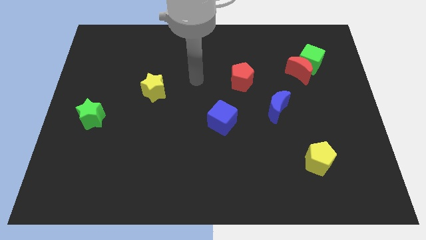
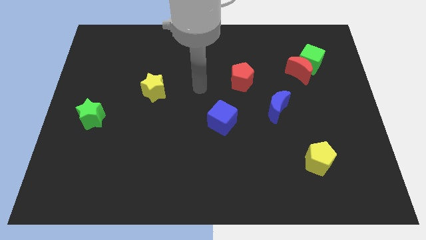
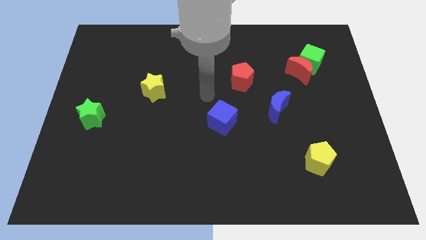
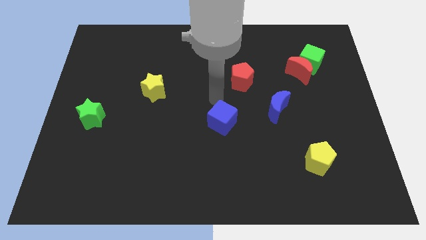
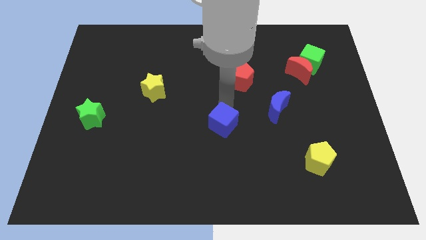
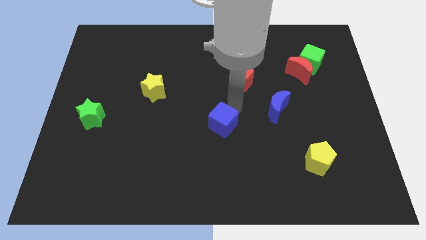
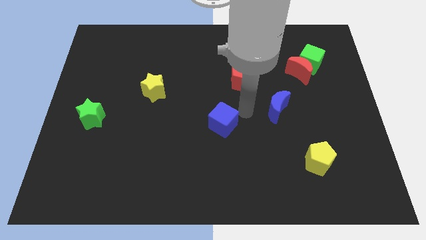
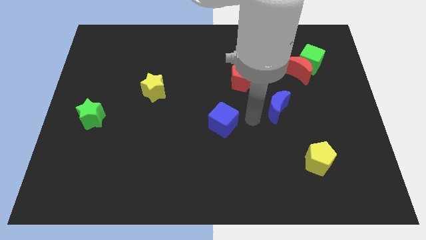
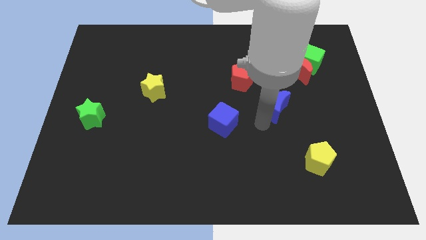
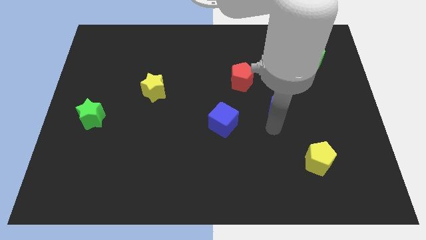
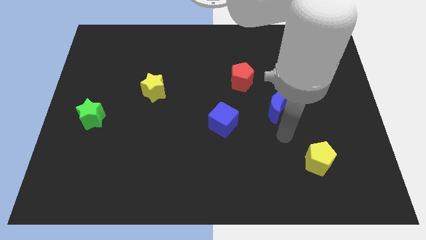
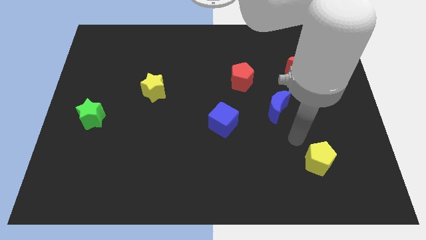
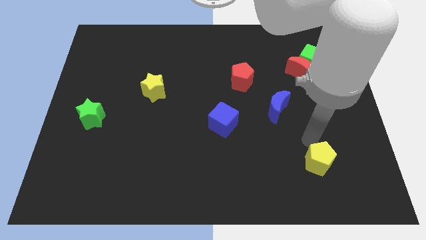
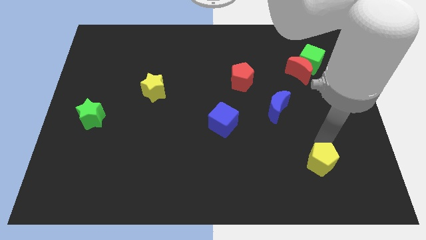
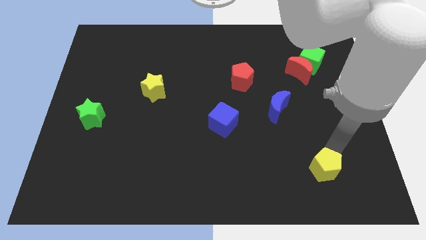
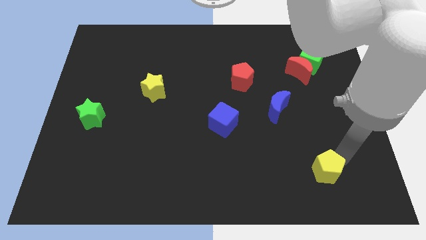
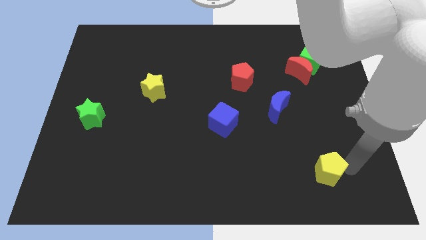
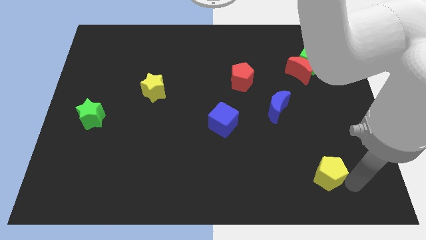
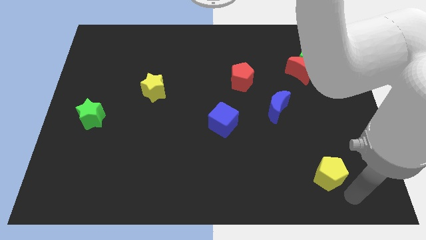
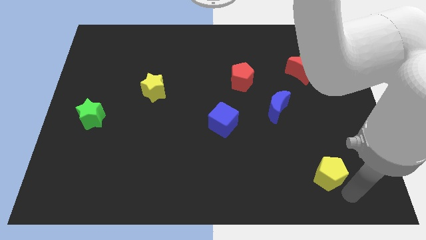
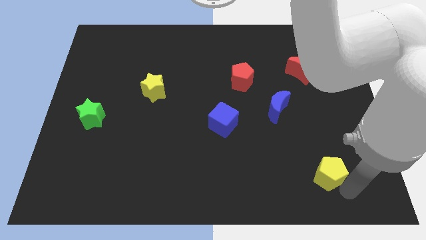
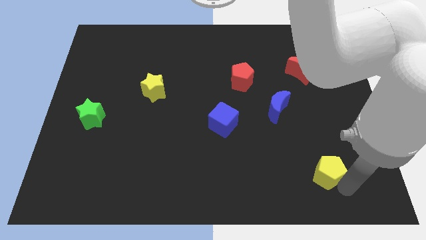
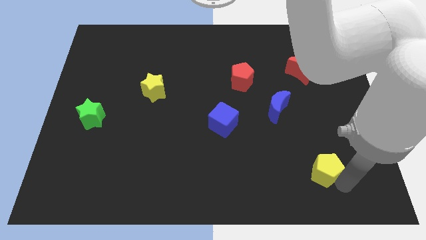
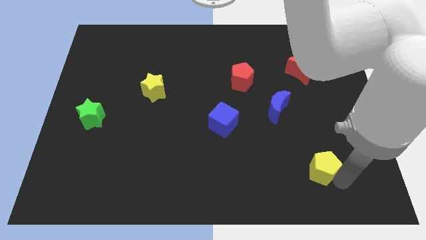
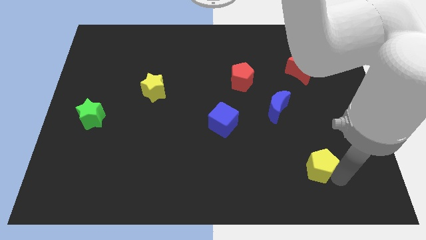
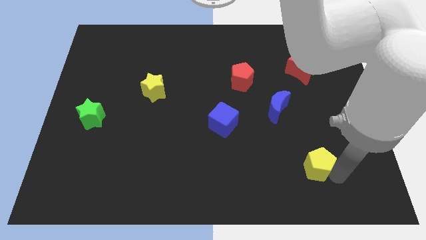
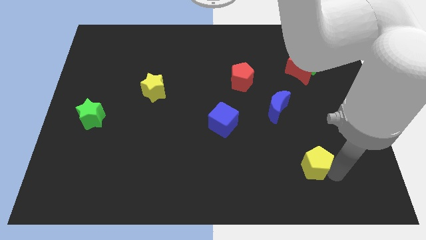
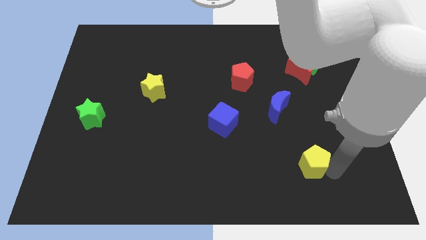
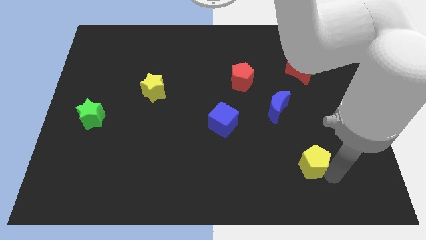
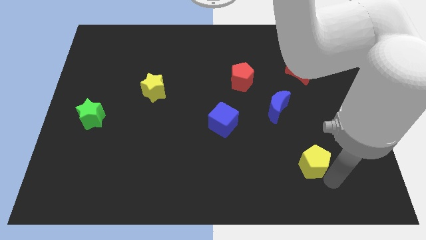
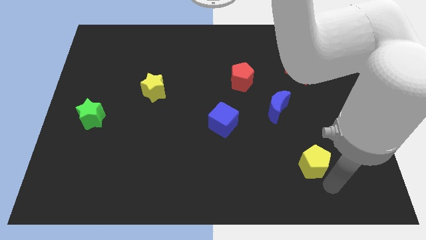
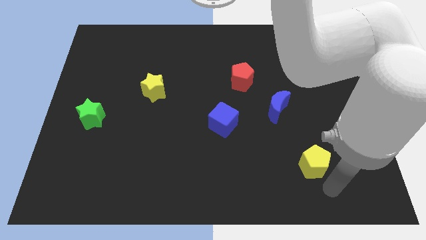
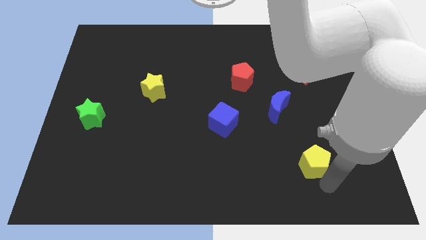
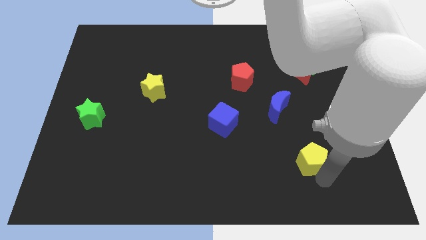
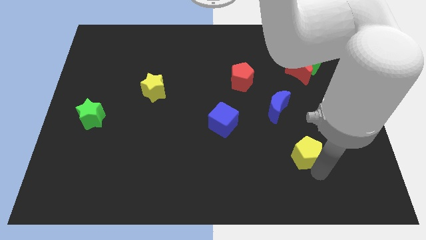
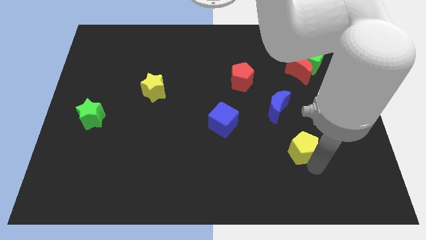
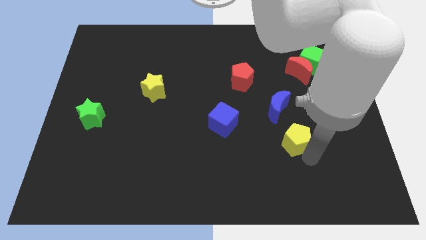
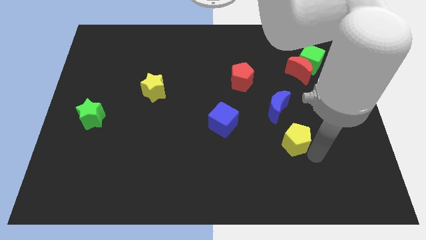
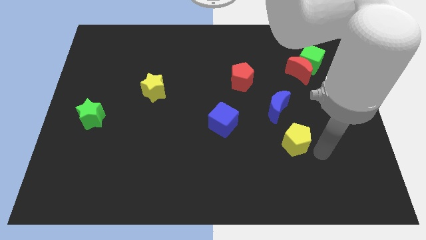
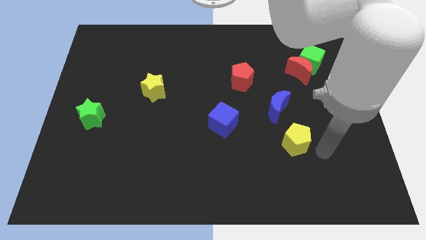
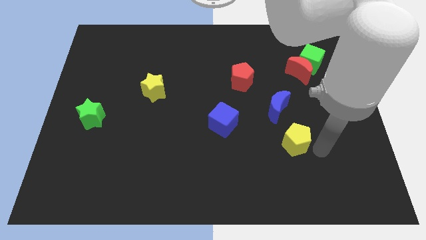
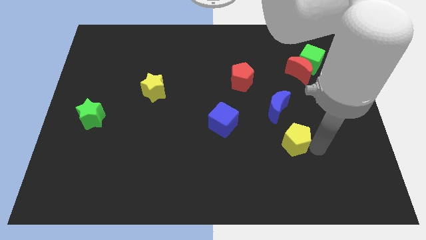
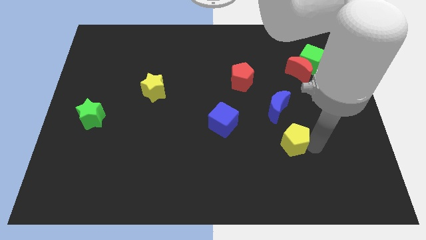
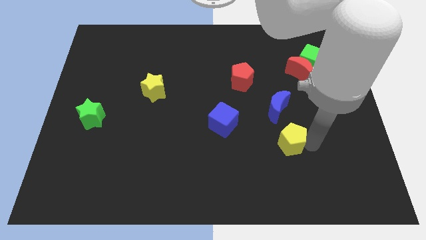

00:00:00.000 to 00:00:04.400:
slightly slide the yellow pentagon diagonally upwards and to the left

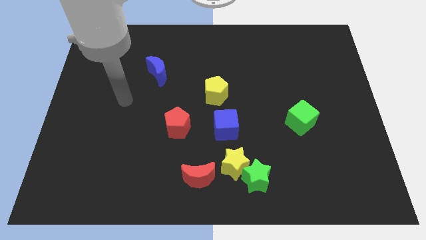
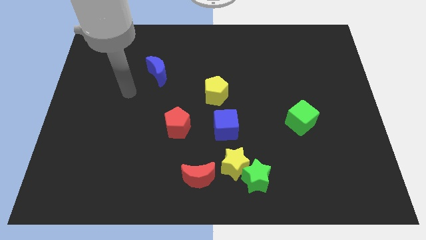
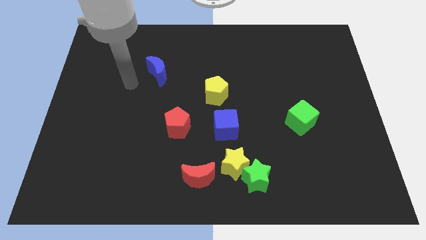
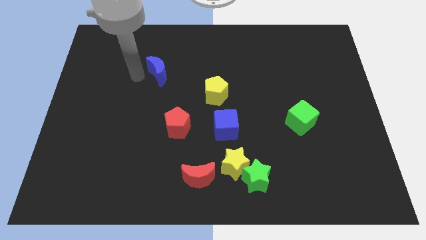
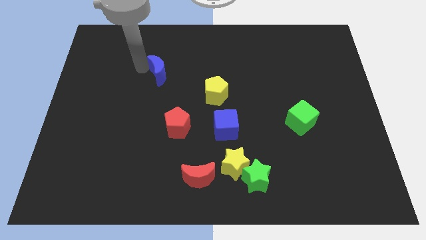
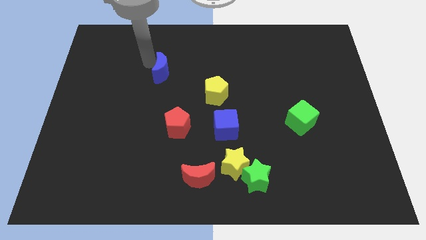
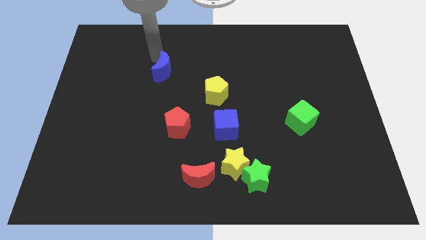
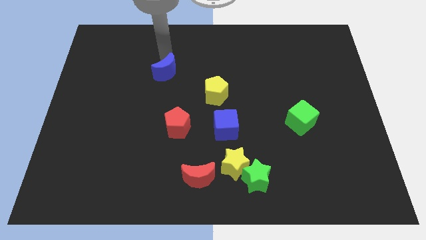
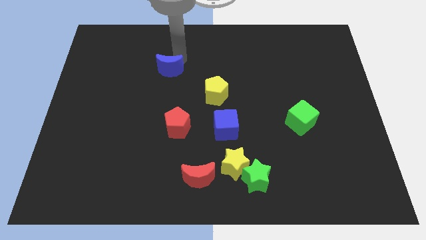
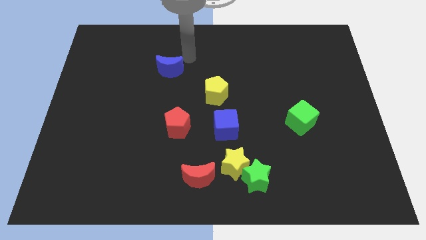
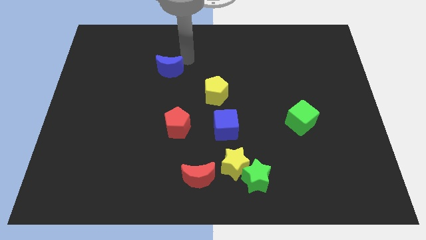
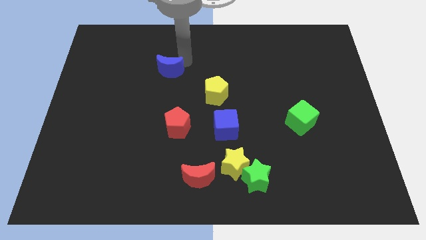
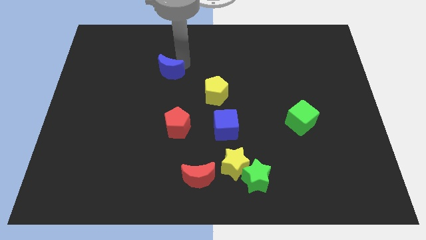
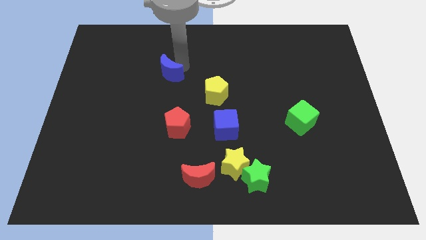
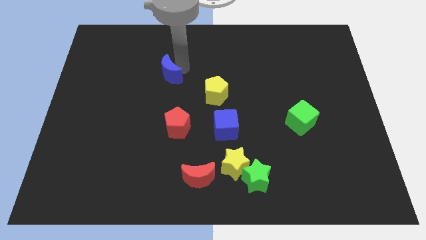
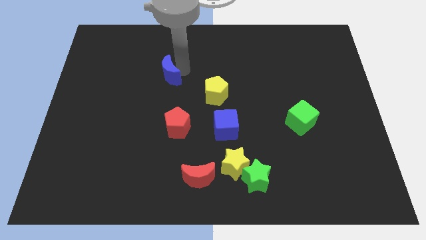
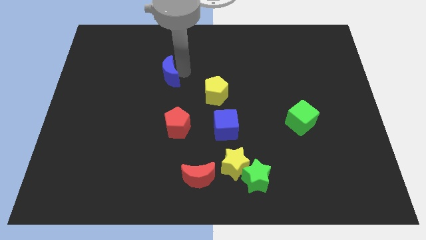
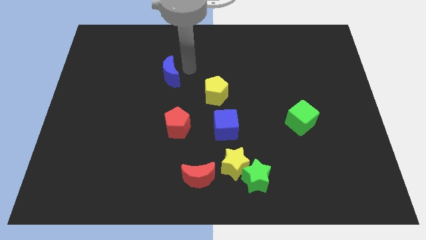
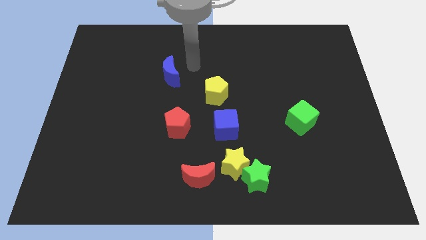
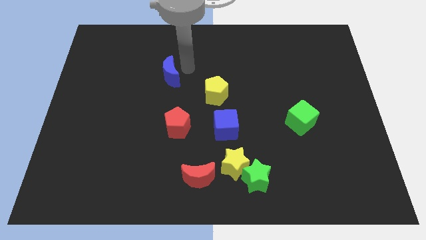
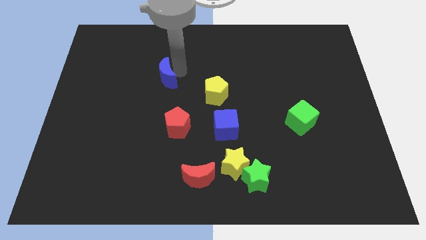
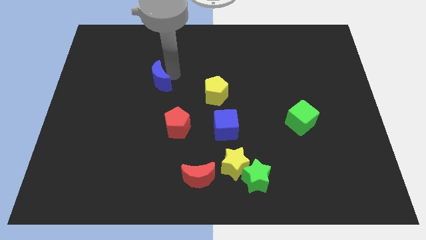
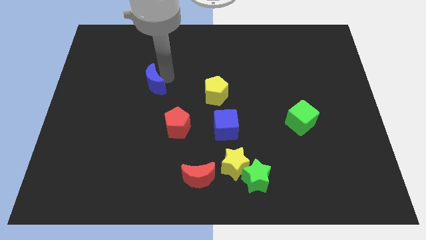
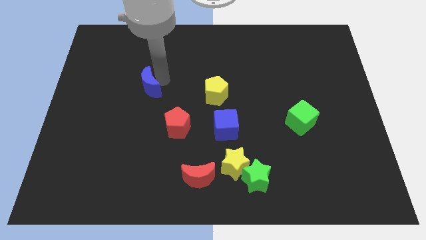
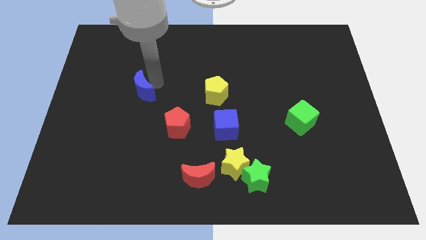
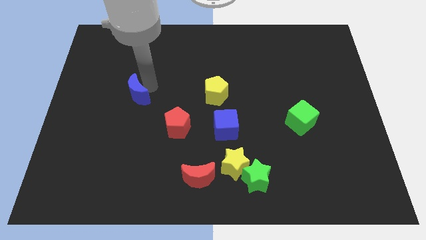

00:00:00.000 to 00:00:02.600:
move the blue moon down and to the left slightly

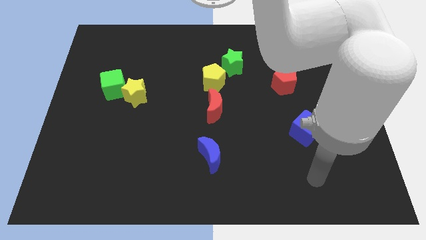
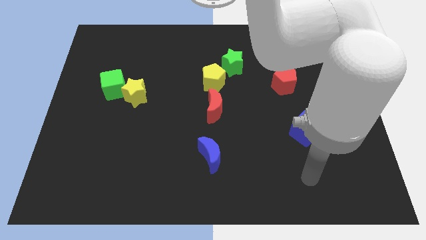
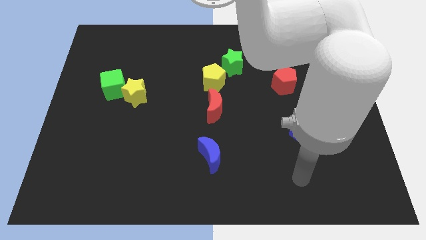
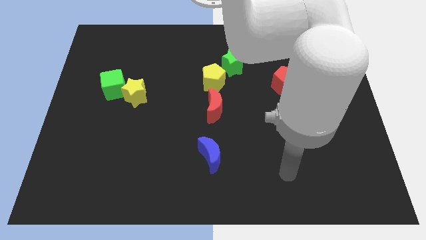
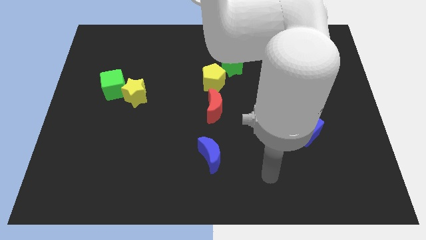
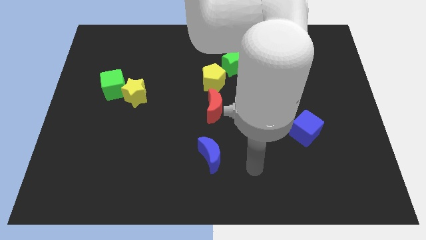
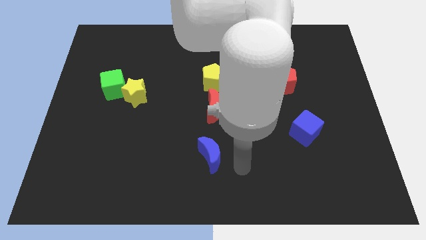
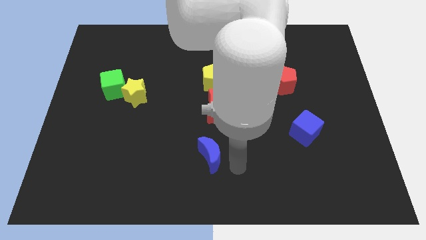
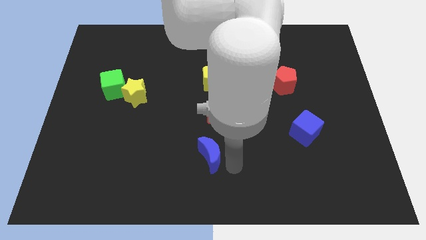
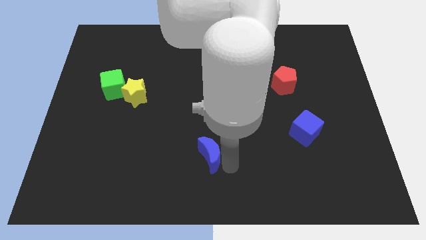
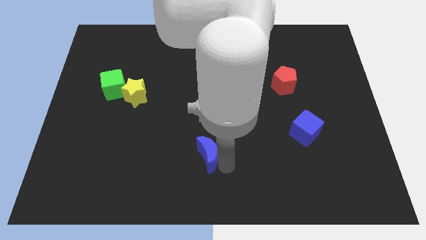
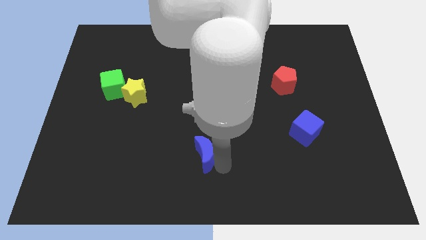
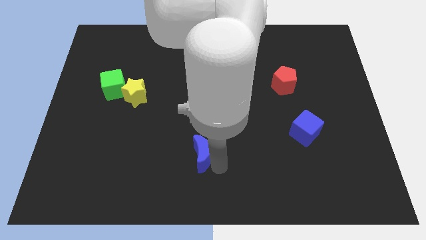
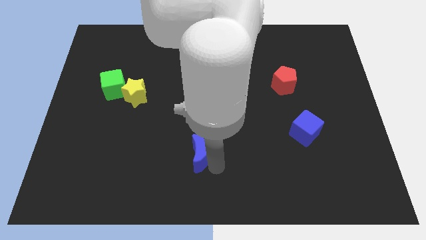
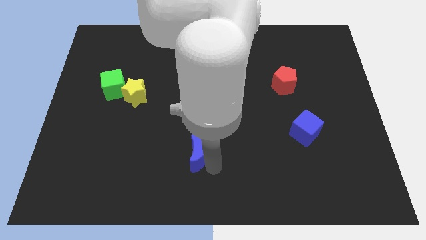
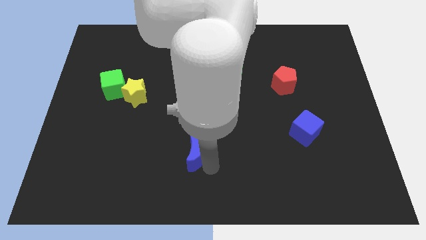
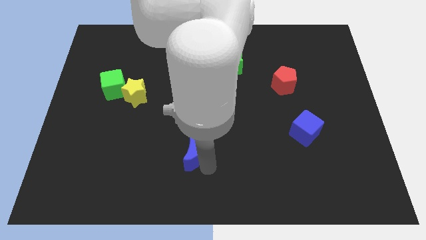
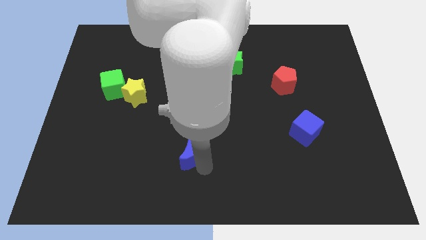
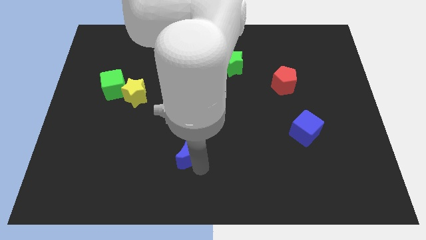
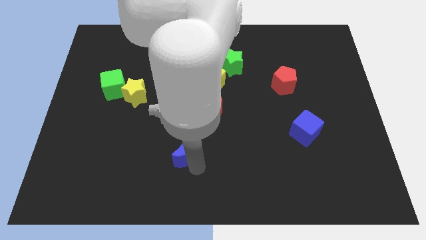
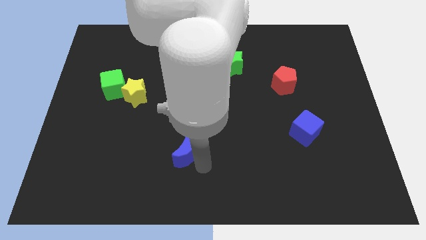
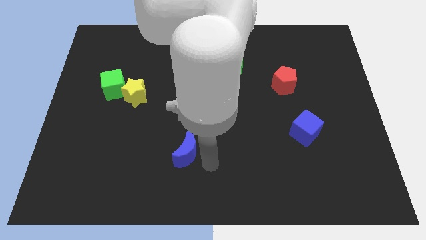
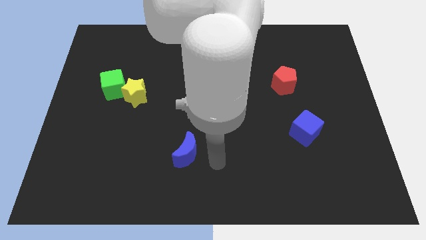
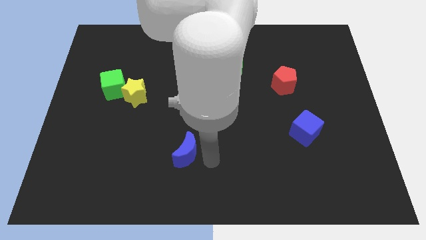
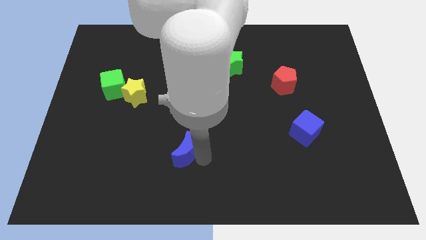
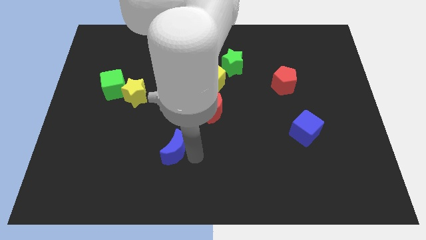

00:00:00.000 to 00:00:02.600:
push the blue moon a little bit left
